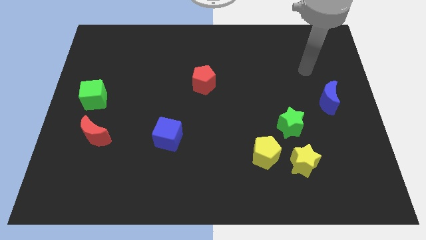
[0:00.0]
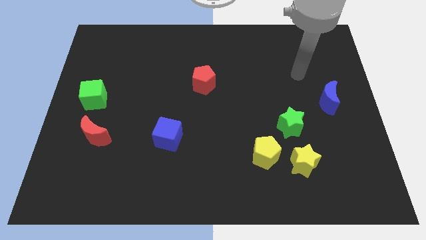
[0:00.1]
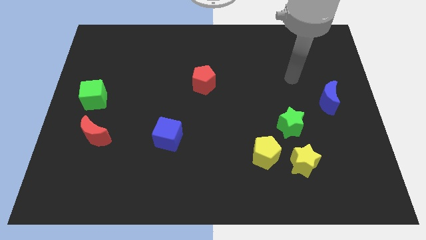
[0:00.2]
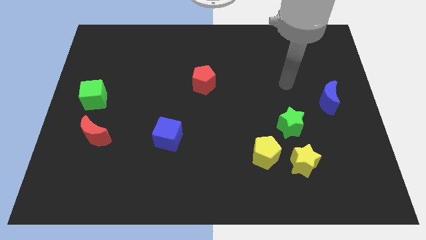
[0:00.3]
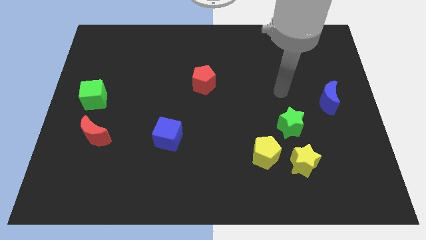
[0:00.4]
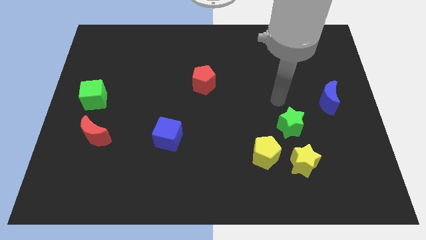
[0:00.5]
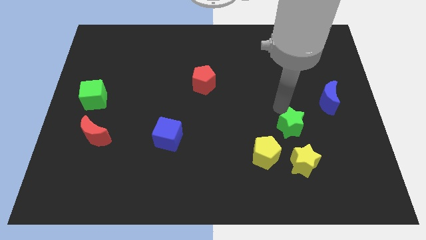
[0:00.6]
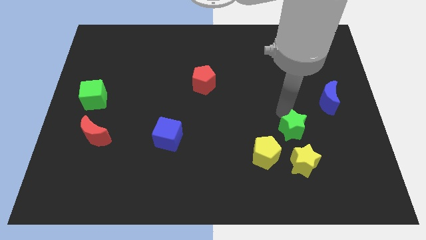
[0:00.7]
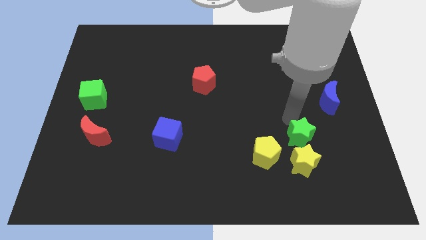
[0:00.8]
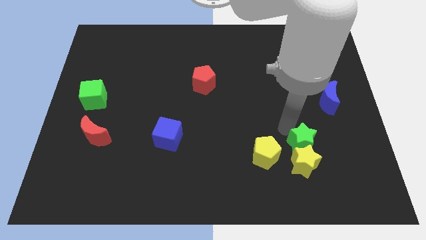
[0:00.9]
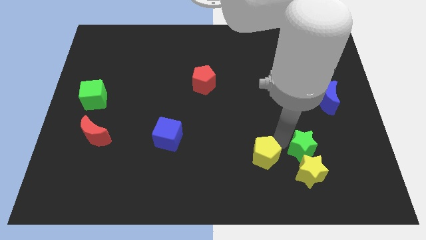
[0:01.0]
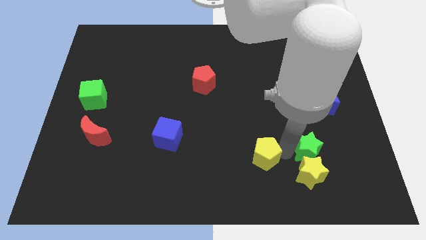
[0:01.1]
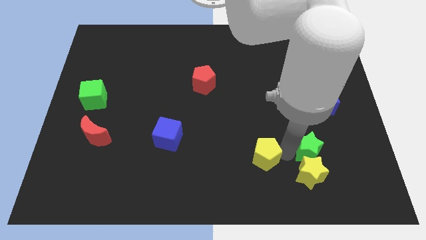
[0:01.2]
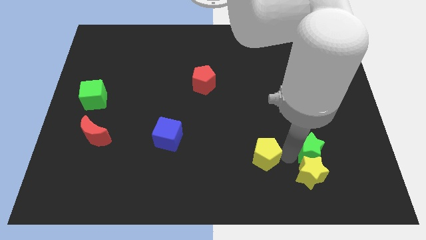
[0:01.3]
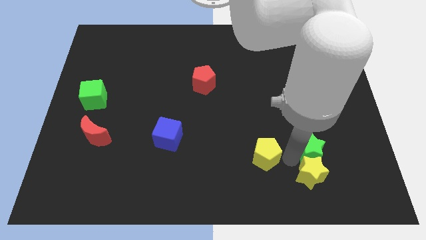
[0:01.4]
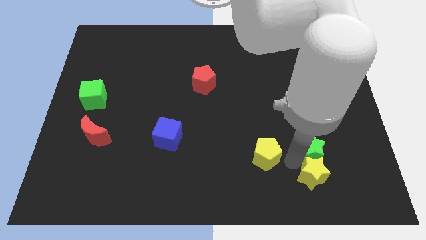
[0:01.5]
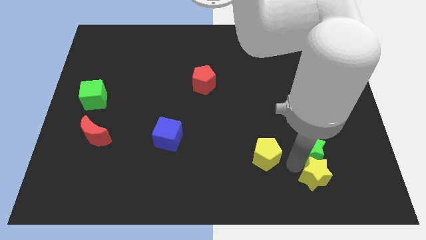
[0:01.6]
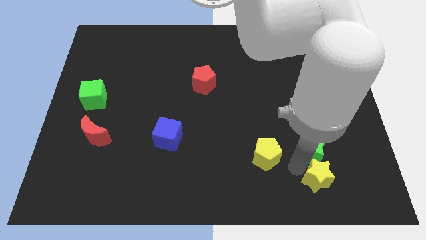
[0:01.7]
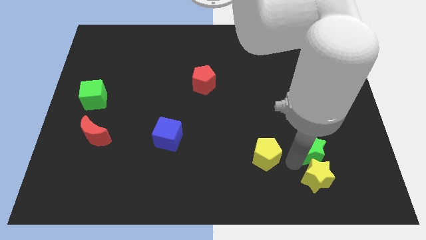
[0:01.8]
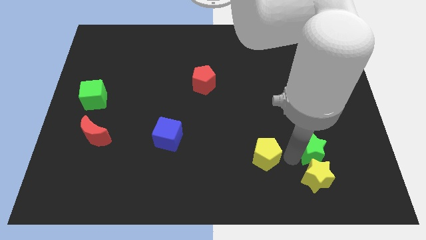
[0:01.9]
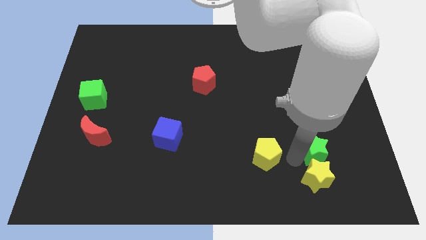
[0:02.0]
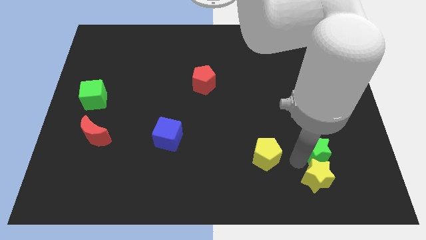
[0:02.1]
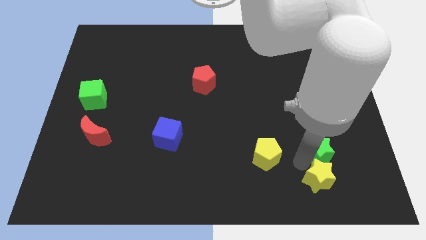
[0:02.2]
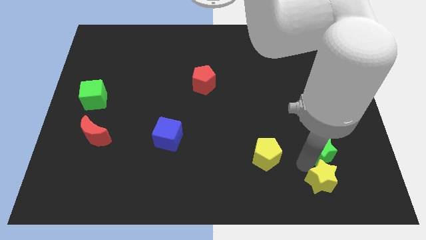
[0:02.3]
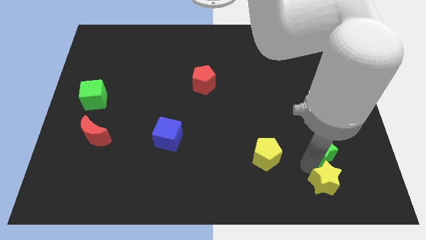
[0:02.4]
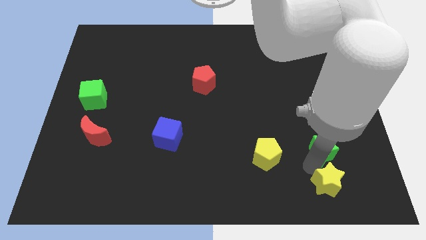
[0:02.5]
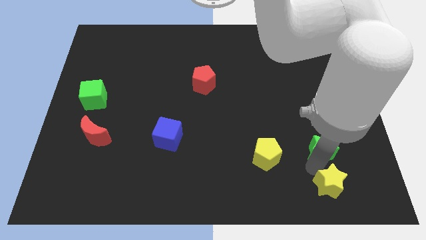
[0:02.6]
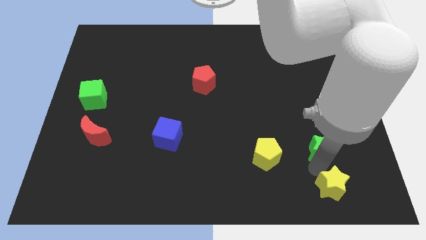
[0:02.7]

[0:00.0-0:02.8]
separate the yellow star from the yellow pentagon and green star

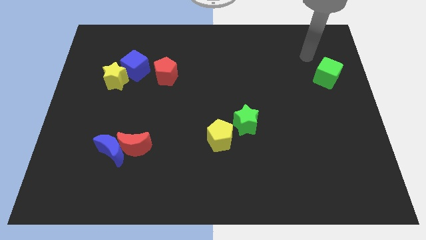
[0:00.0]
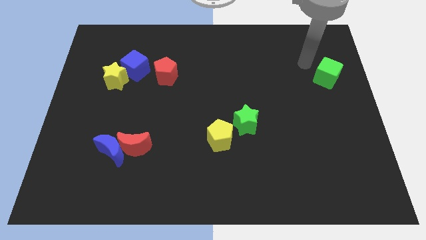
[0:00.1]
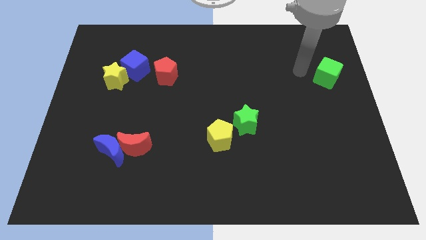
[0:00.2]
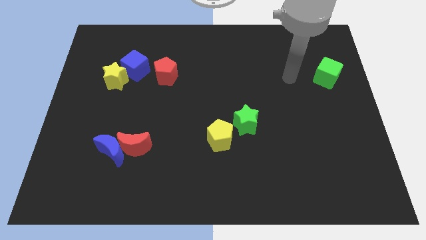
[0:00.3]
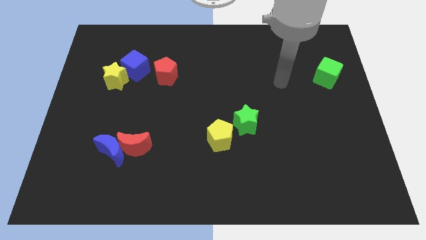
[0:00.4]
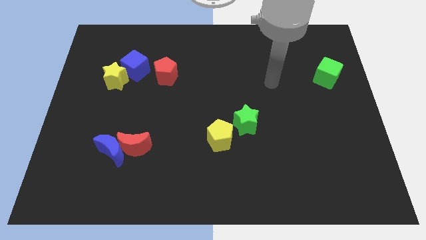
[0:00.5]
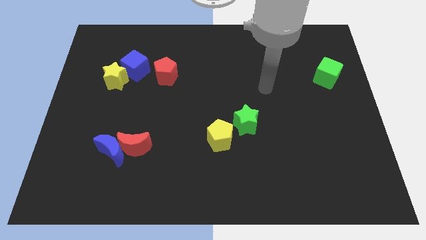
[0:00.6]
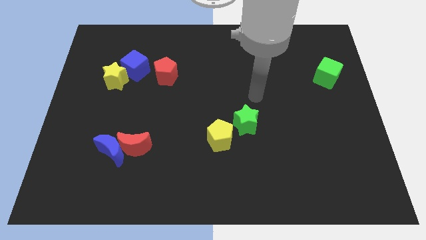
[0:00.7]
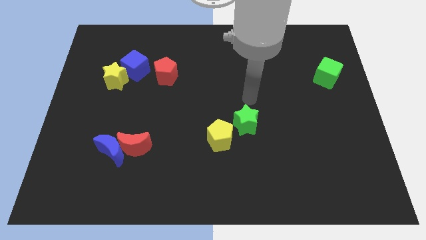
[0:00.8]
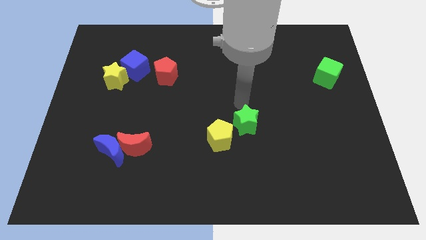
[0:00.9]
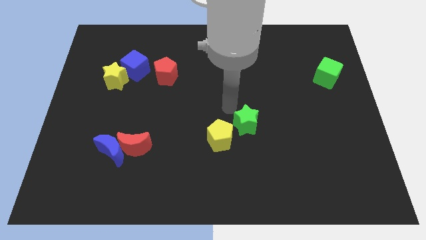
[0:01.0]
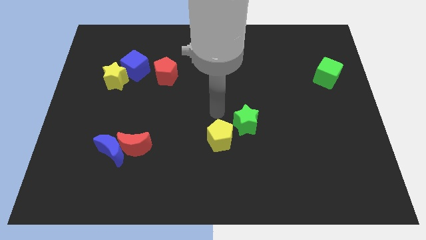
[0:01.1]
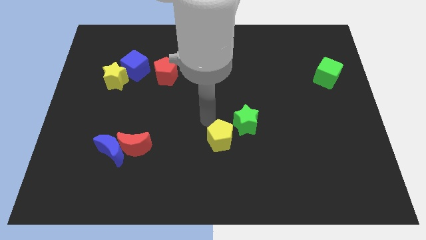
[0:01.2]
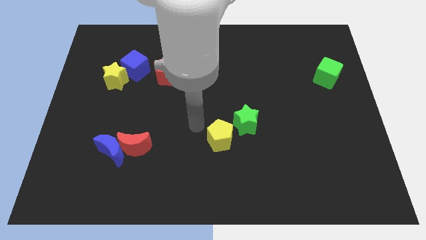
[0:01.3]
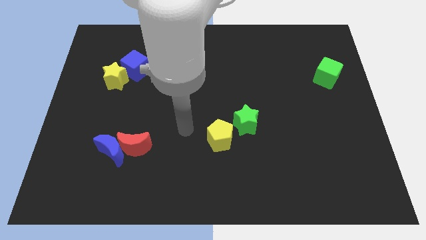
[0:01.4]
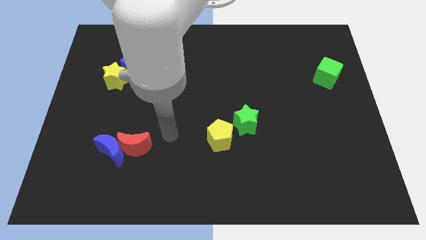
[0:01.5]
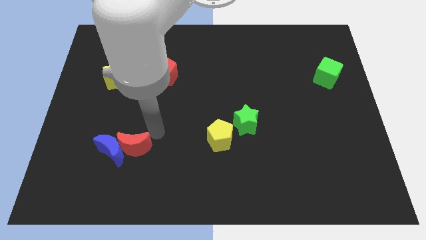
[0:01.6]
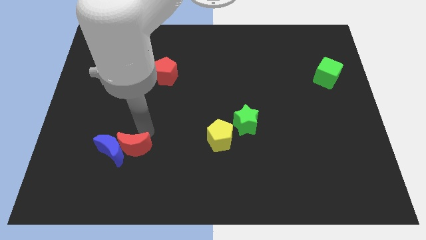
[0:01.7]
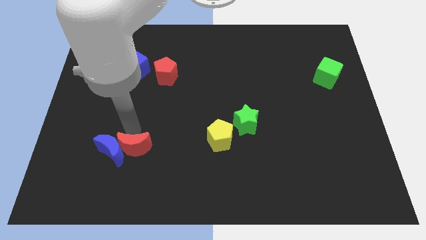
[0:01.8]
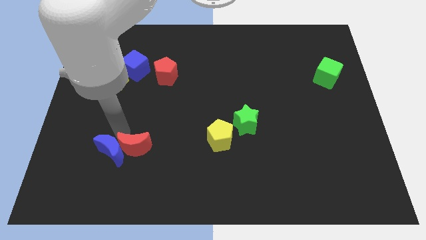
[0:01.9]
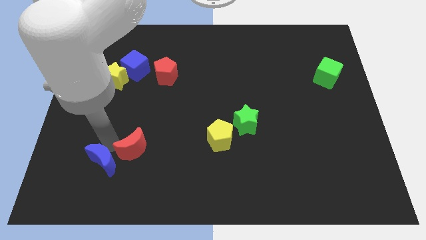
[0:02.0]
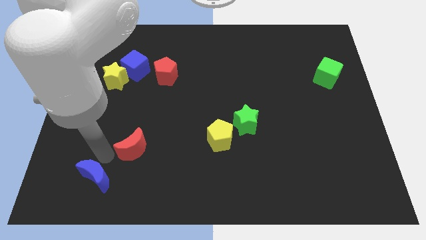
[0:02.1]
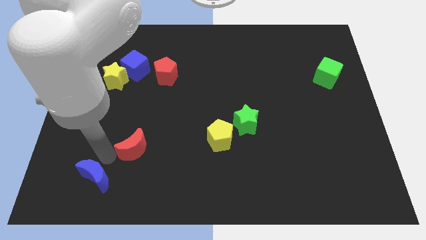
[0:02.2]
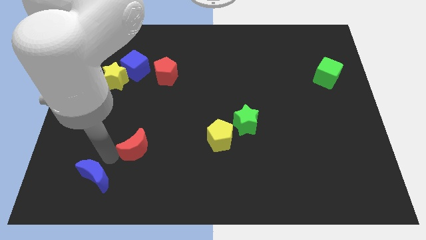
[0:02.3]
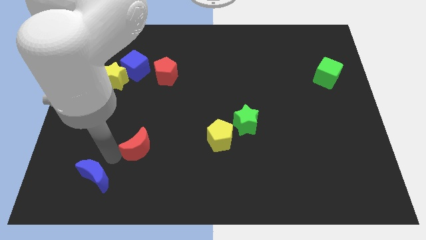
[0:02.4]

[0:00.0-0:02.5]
pull the red moon apart from the blue moon

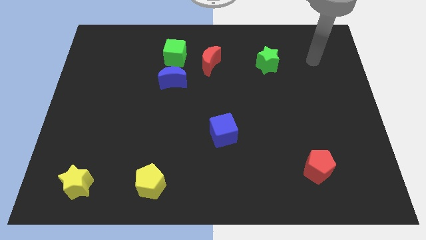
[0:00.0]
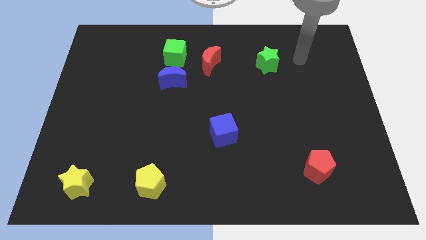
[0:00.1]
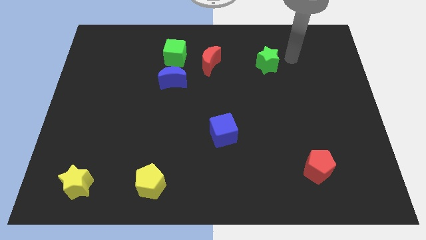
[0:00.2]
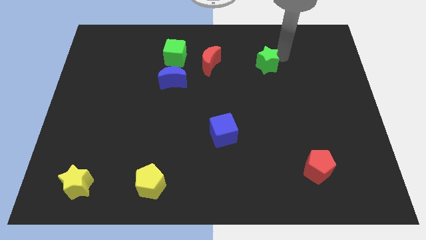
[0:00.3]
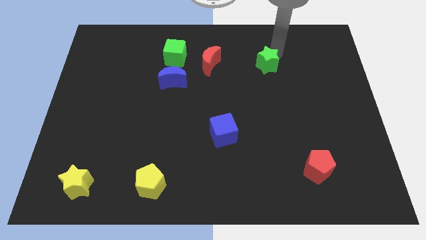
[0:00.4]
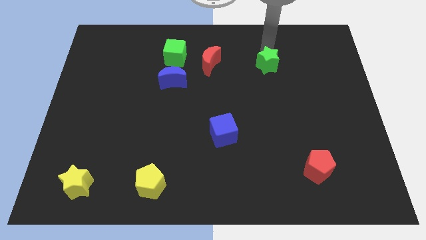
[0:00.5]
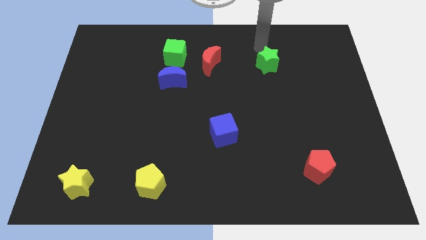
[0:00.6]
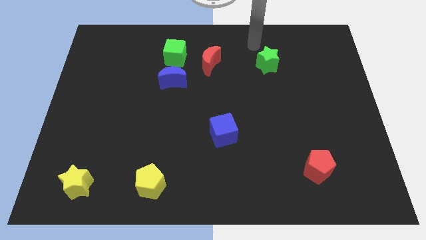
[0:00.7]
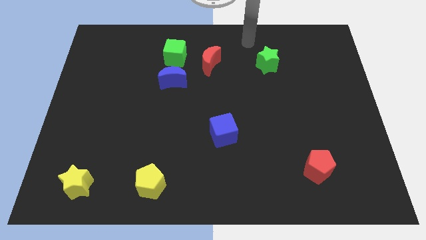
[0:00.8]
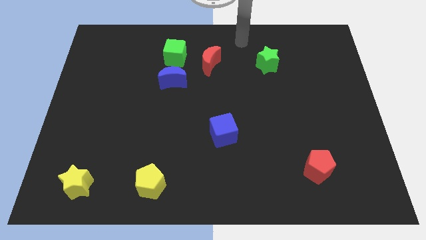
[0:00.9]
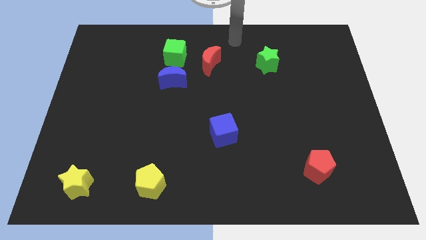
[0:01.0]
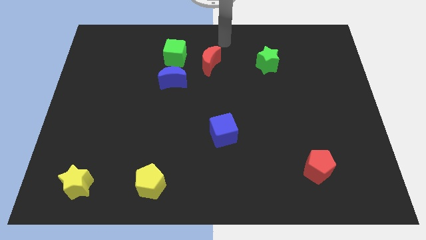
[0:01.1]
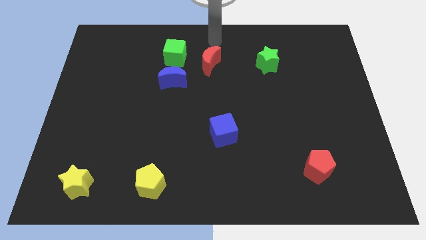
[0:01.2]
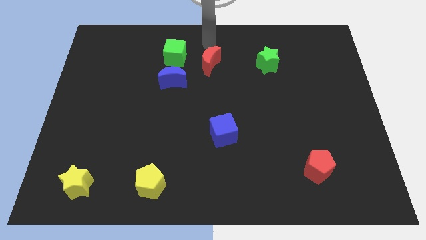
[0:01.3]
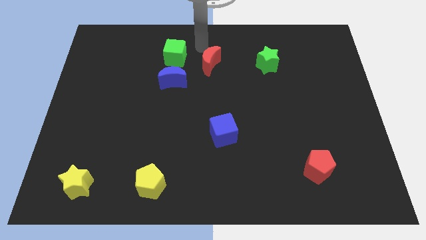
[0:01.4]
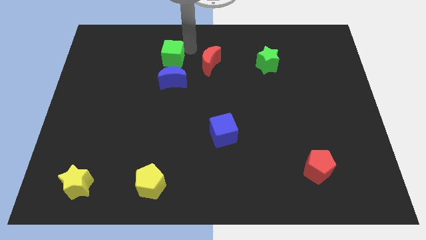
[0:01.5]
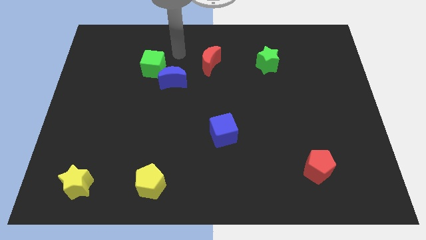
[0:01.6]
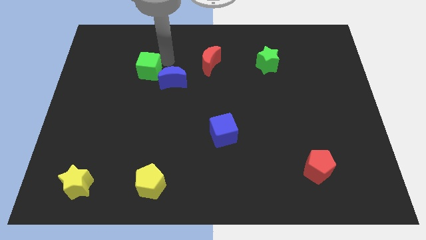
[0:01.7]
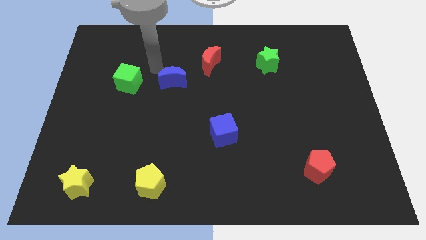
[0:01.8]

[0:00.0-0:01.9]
pull the blue moon apart from the green cube

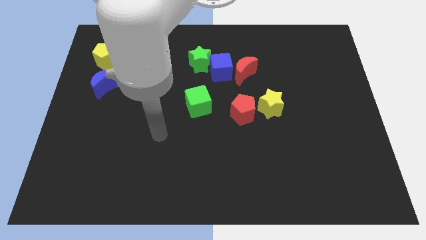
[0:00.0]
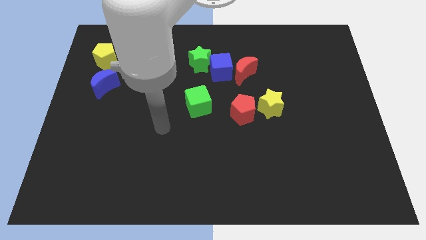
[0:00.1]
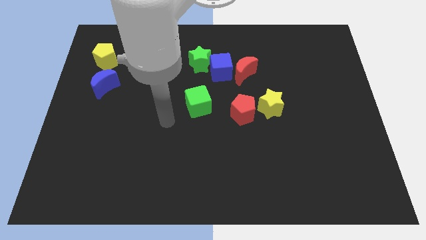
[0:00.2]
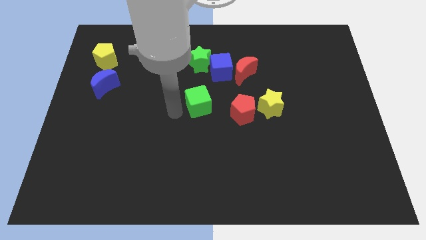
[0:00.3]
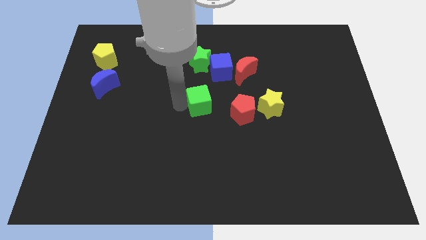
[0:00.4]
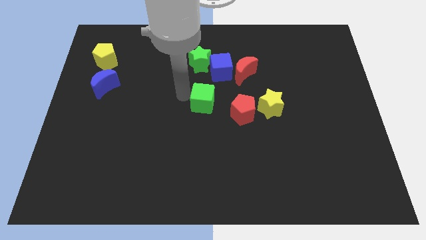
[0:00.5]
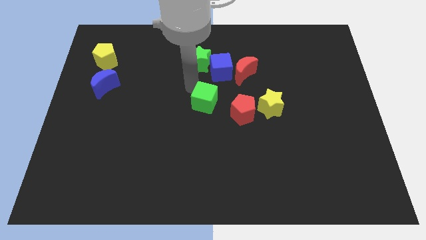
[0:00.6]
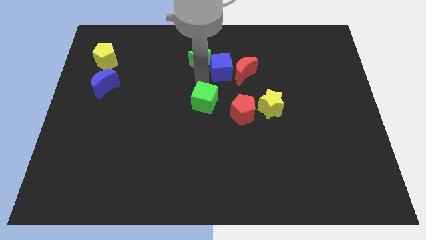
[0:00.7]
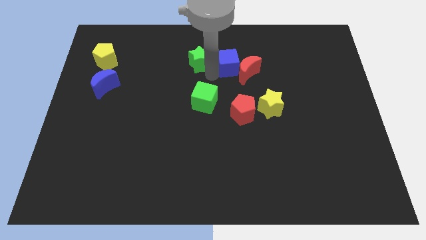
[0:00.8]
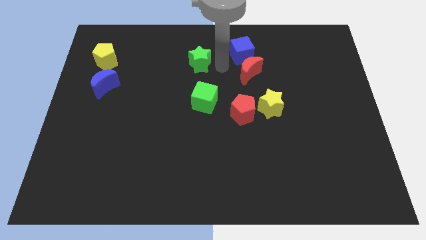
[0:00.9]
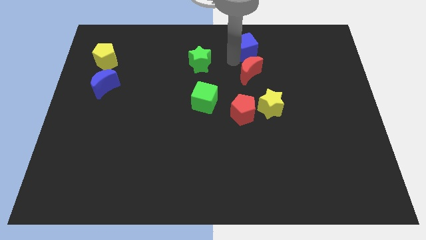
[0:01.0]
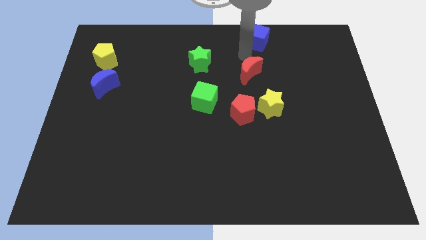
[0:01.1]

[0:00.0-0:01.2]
separate the red moon from the blue cube

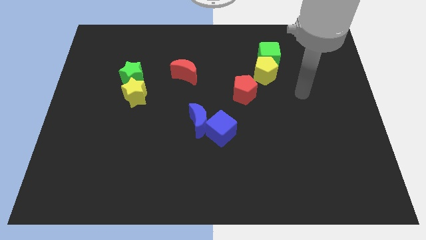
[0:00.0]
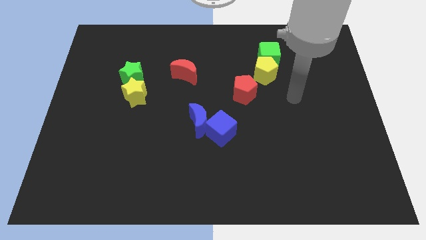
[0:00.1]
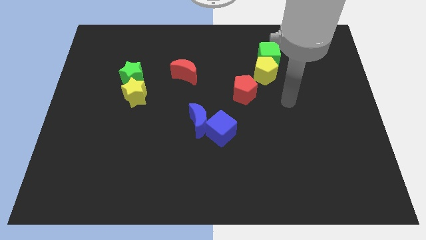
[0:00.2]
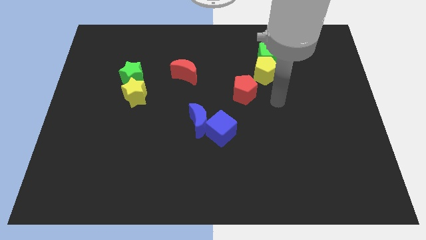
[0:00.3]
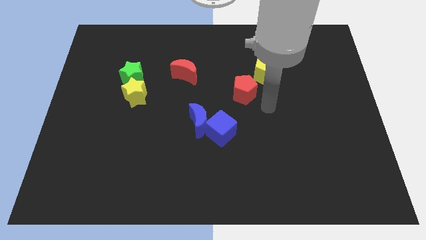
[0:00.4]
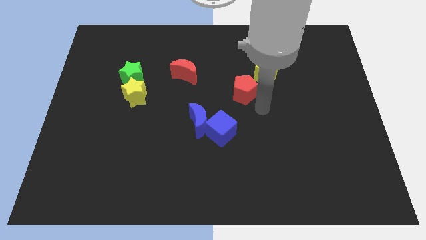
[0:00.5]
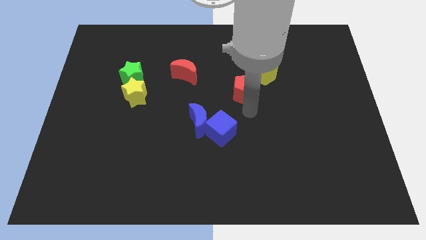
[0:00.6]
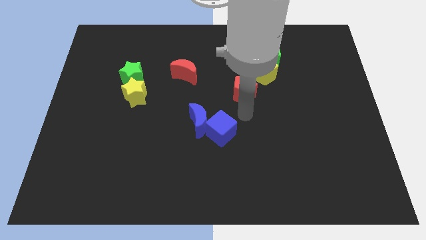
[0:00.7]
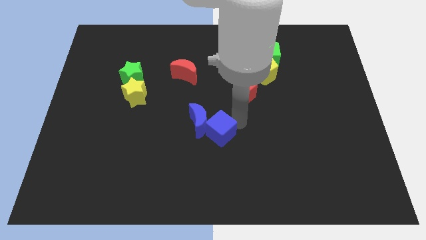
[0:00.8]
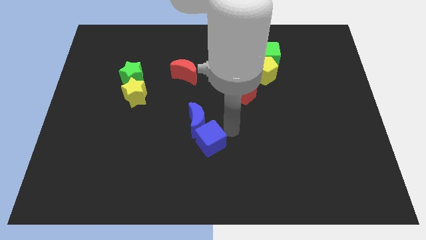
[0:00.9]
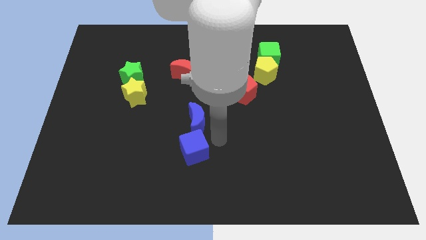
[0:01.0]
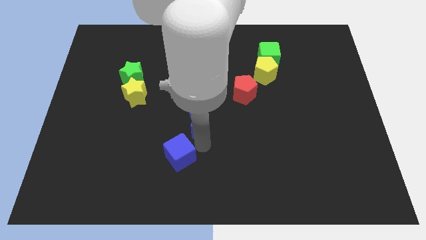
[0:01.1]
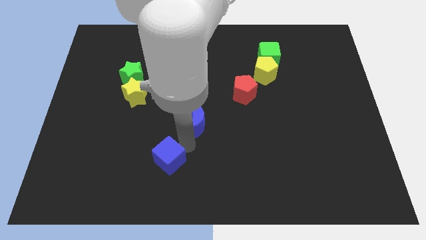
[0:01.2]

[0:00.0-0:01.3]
separate the blue moon from the blue cube
